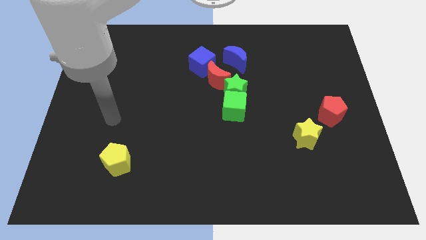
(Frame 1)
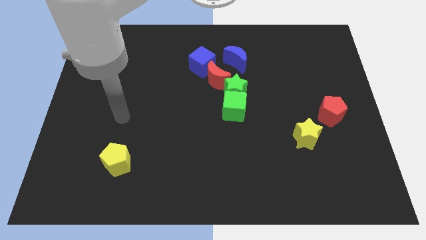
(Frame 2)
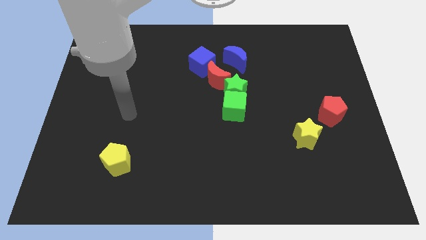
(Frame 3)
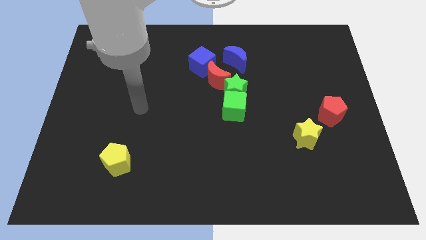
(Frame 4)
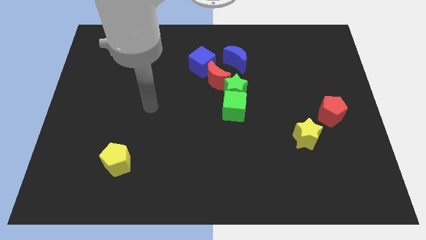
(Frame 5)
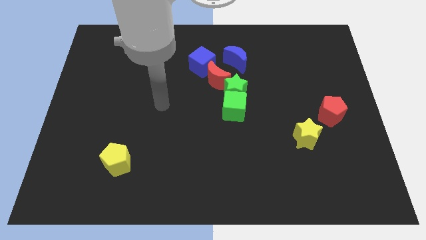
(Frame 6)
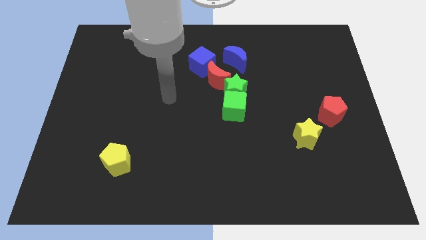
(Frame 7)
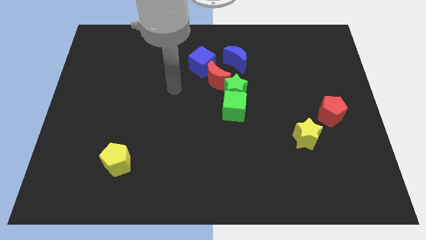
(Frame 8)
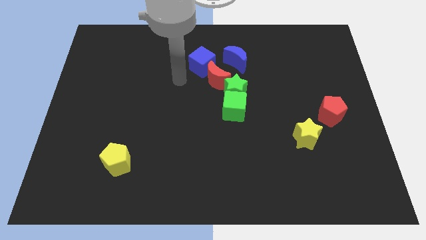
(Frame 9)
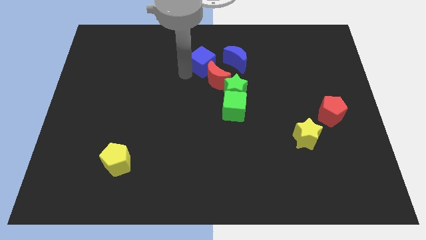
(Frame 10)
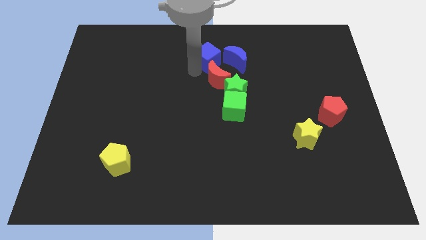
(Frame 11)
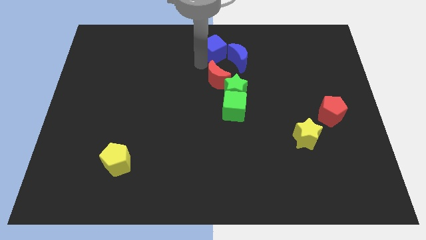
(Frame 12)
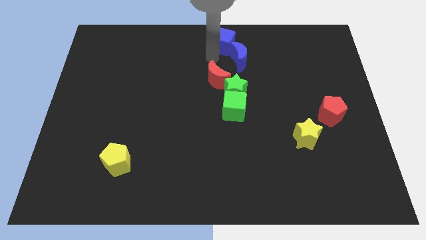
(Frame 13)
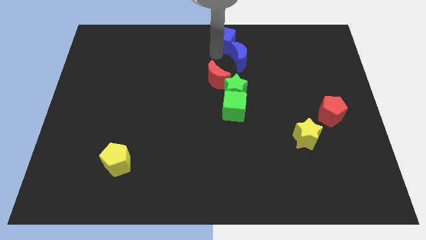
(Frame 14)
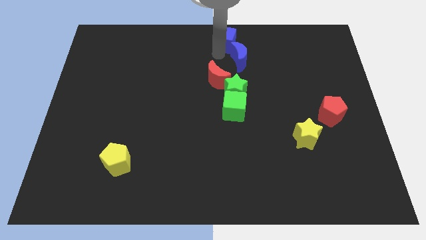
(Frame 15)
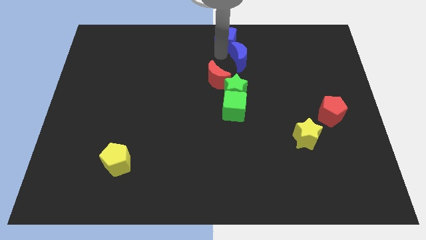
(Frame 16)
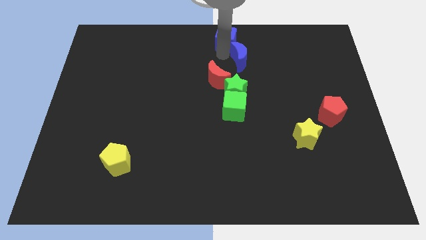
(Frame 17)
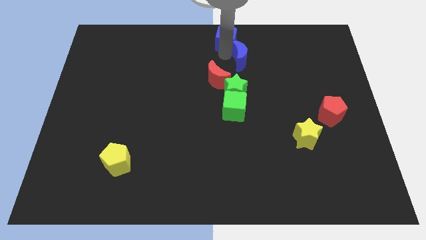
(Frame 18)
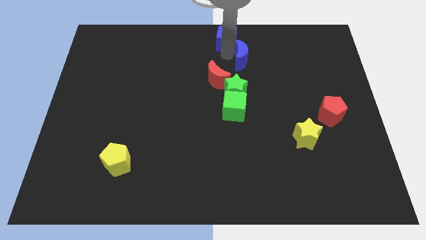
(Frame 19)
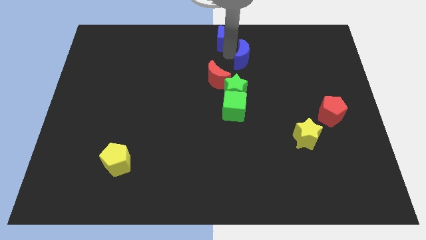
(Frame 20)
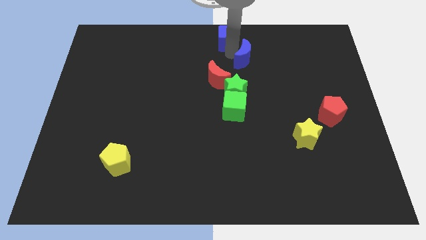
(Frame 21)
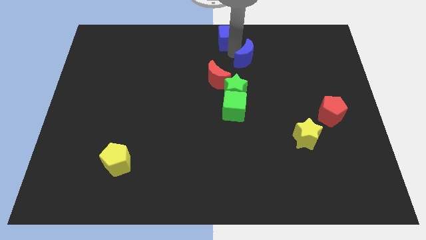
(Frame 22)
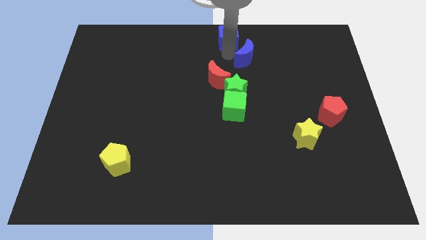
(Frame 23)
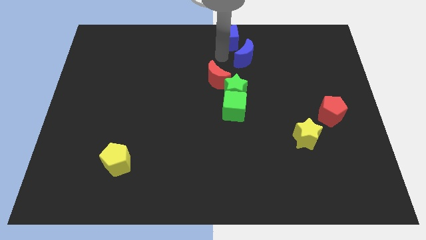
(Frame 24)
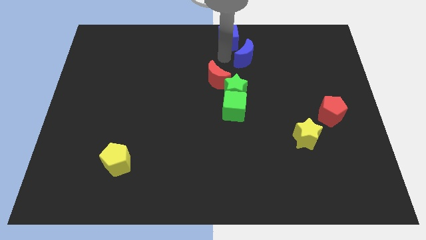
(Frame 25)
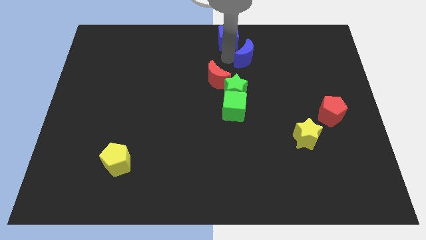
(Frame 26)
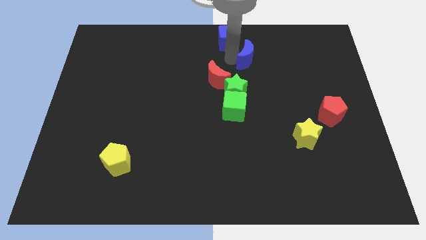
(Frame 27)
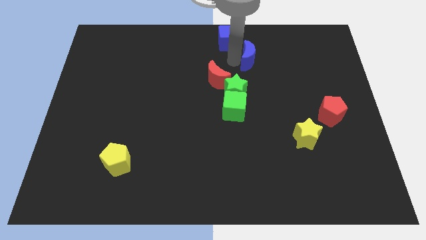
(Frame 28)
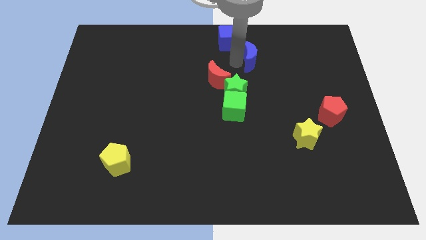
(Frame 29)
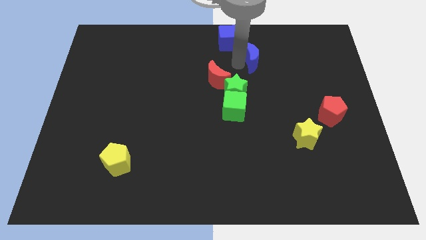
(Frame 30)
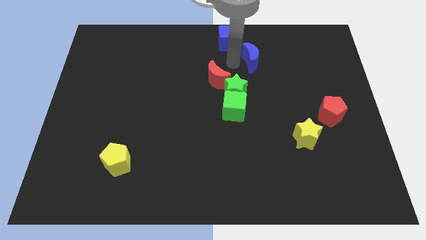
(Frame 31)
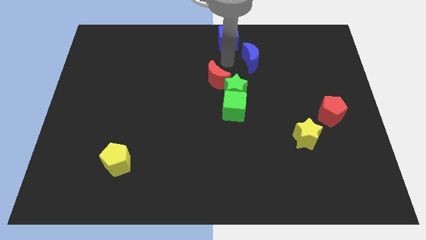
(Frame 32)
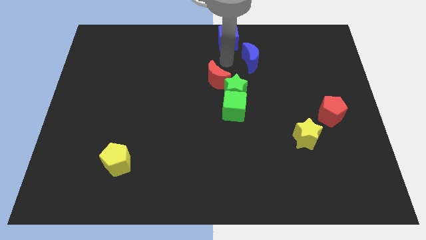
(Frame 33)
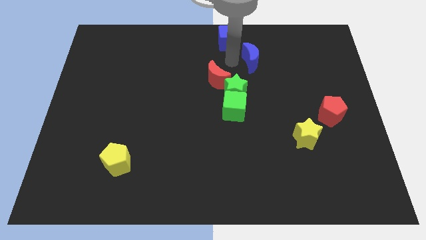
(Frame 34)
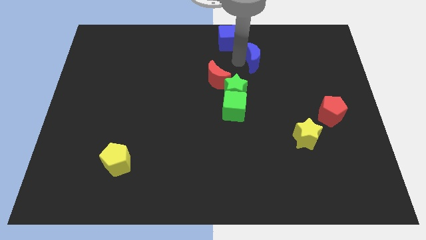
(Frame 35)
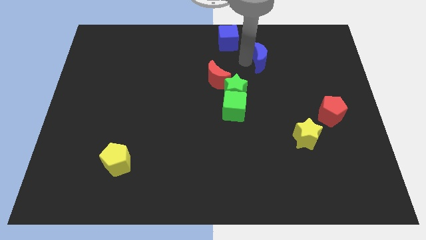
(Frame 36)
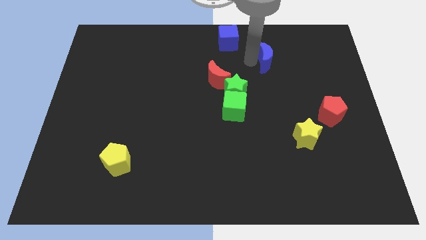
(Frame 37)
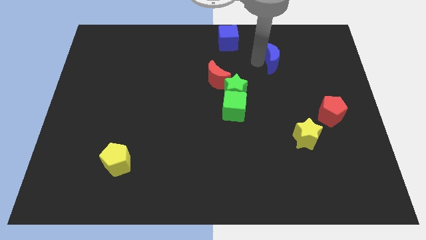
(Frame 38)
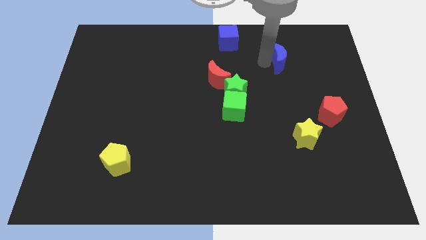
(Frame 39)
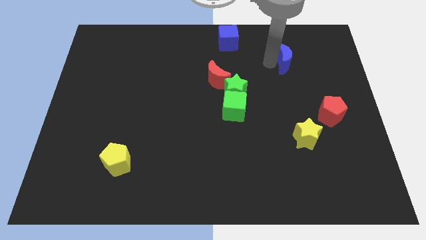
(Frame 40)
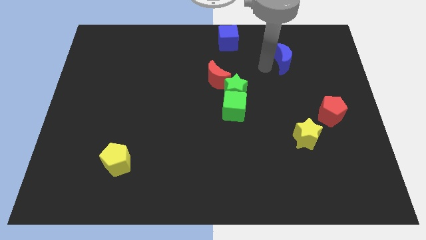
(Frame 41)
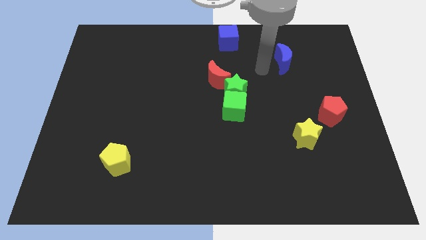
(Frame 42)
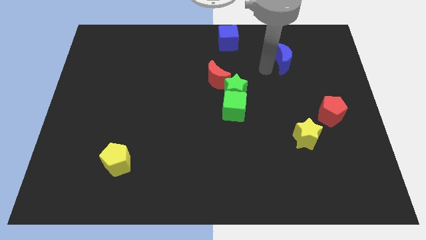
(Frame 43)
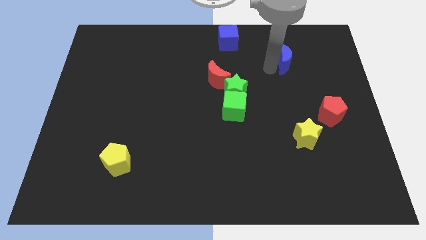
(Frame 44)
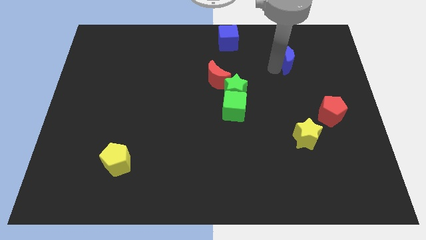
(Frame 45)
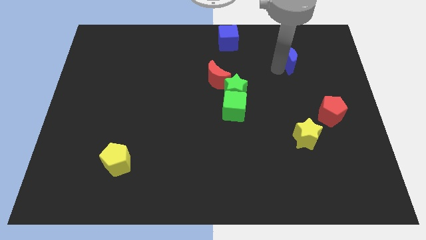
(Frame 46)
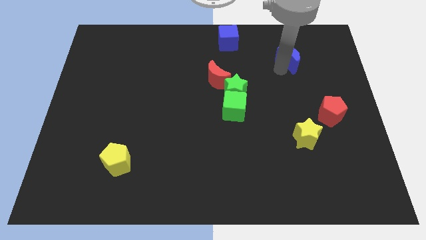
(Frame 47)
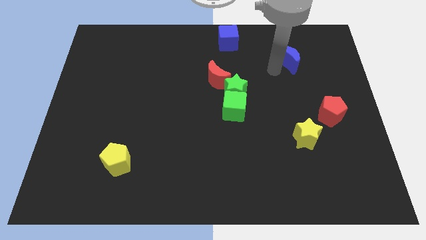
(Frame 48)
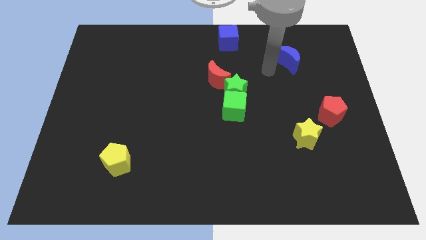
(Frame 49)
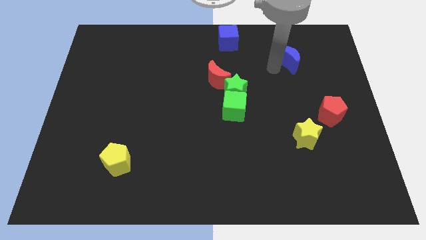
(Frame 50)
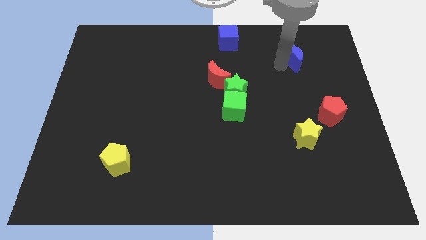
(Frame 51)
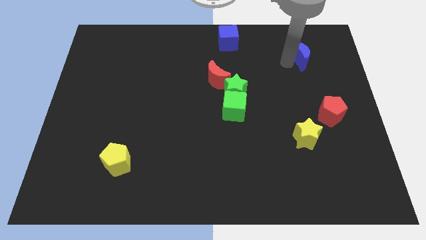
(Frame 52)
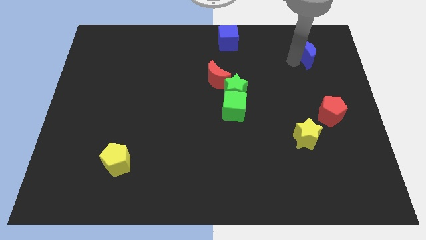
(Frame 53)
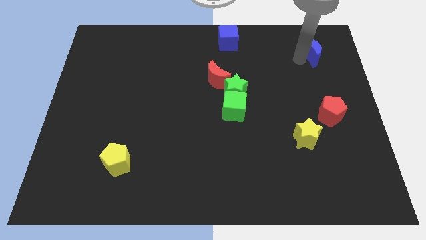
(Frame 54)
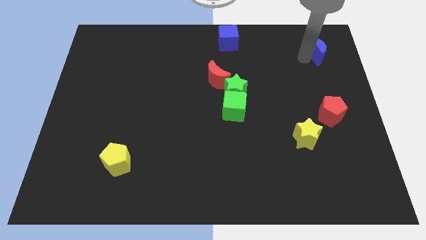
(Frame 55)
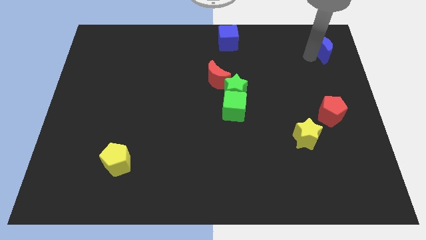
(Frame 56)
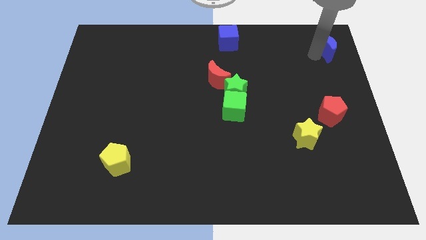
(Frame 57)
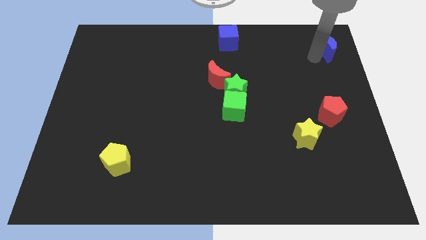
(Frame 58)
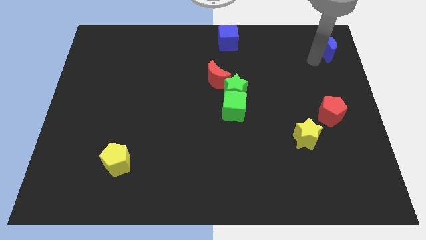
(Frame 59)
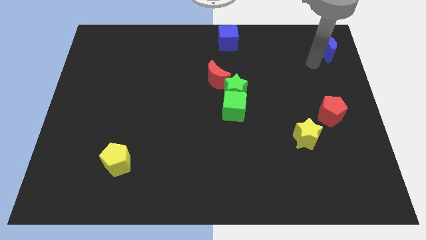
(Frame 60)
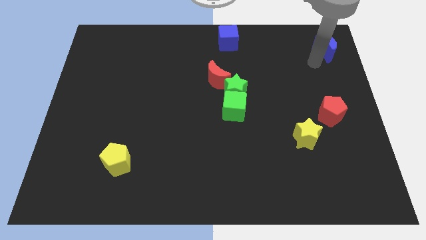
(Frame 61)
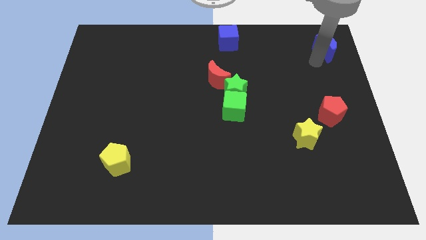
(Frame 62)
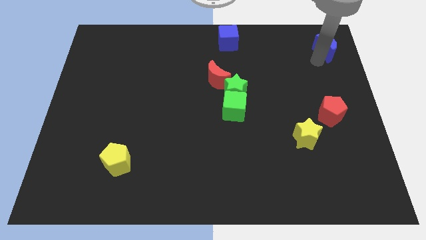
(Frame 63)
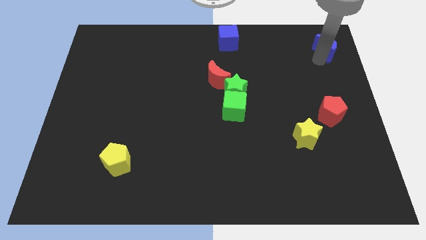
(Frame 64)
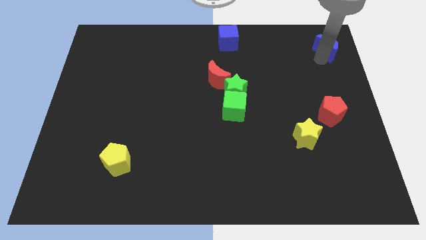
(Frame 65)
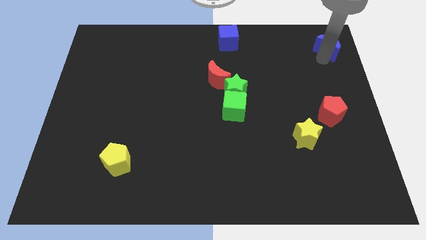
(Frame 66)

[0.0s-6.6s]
slide the blue moon to the upper right corner

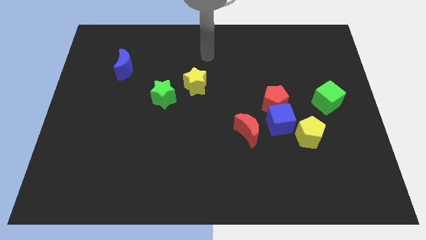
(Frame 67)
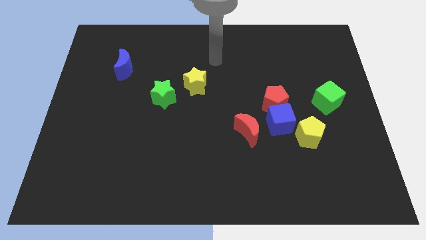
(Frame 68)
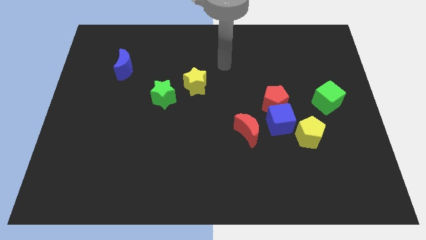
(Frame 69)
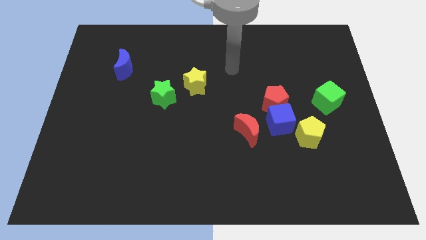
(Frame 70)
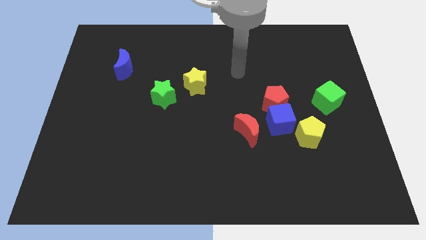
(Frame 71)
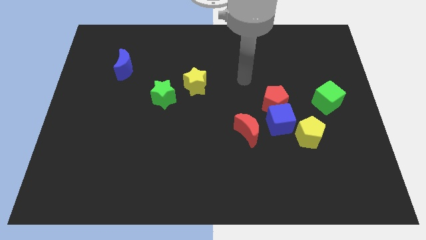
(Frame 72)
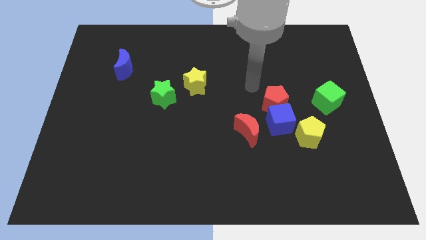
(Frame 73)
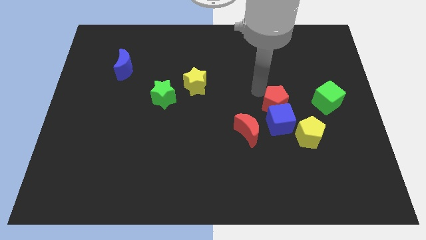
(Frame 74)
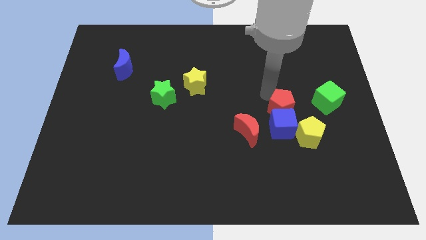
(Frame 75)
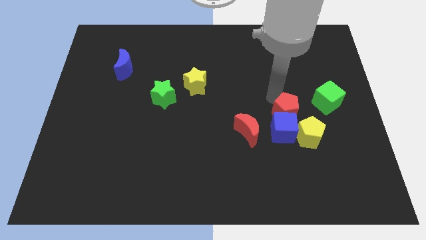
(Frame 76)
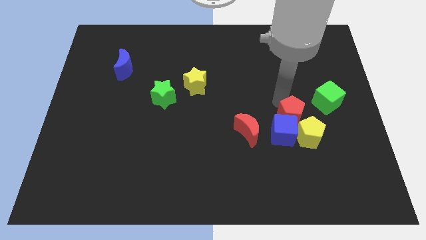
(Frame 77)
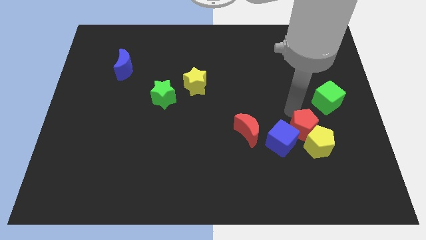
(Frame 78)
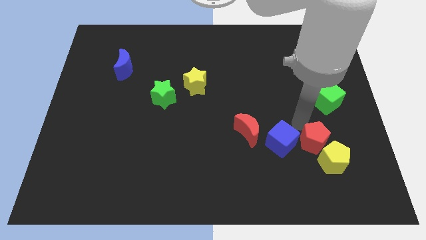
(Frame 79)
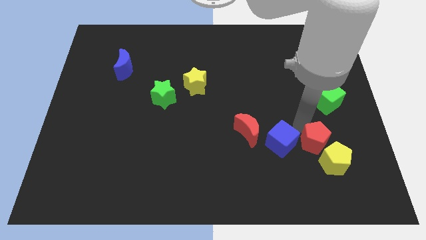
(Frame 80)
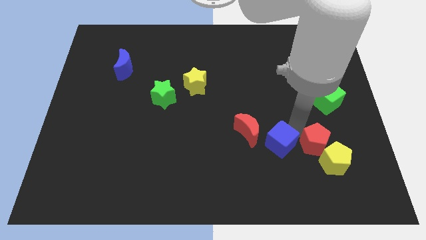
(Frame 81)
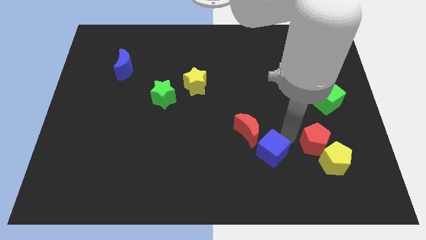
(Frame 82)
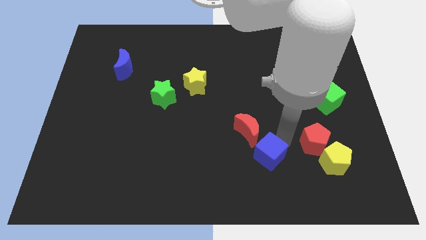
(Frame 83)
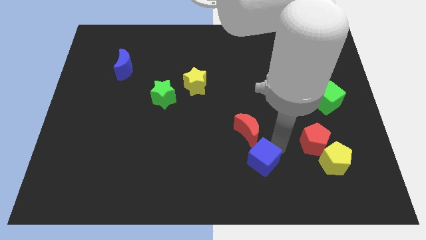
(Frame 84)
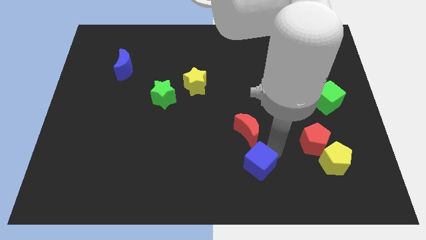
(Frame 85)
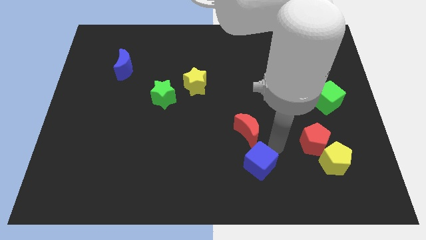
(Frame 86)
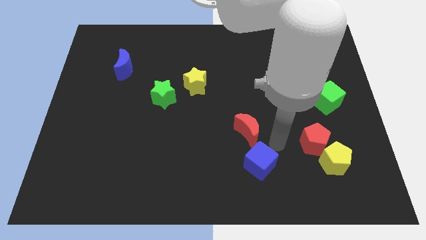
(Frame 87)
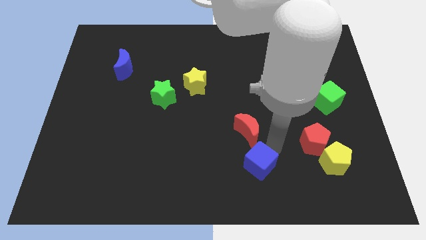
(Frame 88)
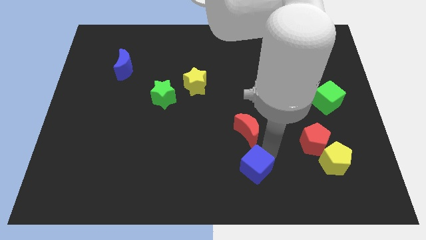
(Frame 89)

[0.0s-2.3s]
push the blue cube to the bottom

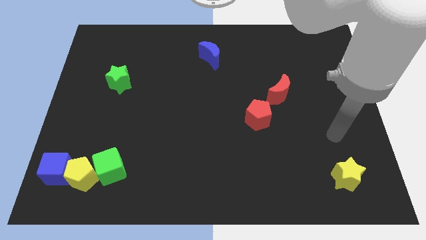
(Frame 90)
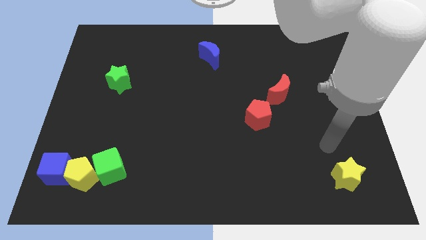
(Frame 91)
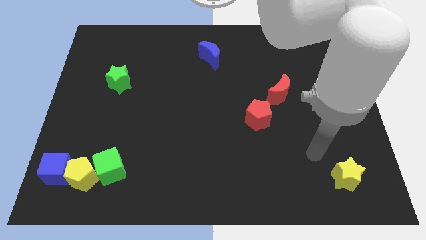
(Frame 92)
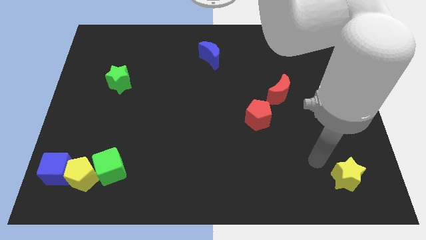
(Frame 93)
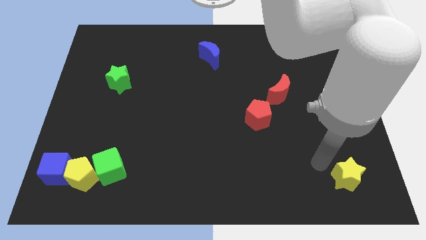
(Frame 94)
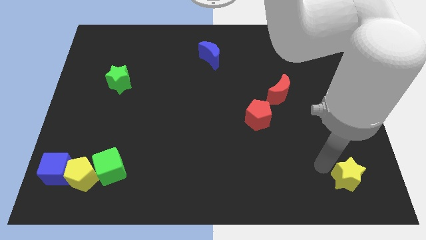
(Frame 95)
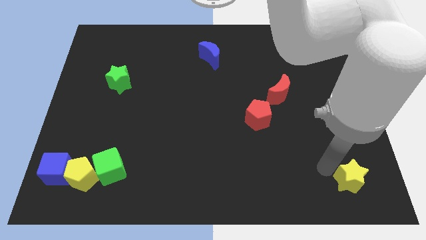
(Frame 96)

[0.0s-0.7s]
put the yellow star to the bottom right of the board
